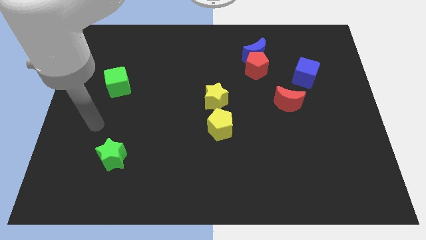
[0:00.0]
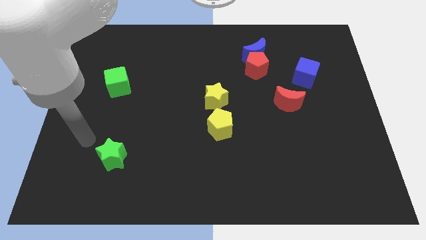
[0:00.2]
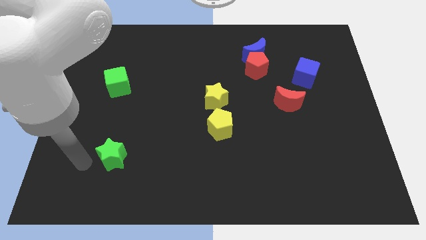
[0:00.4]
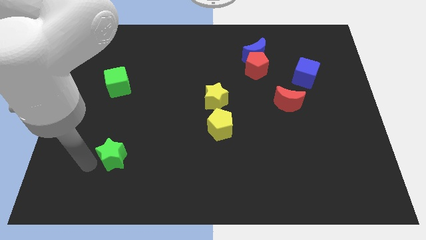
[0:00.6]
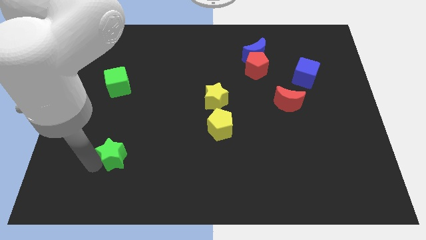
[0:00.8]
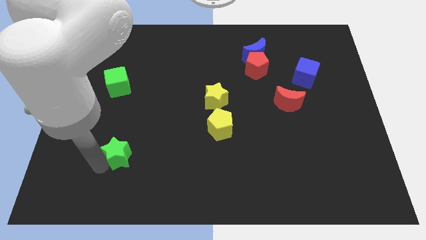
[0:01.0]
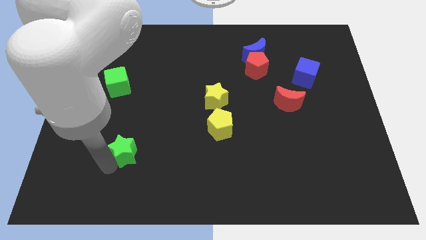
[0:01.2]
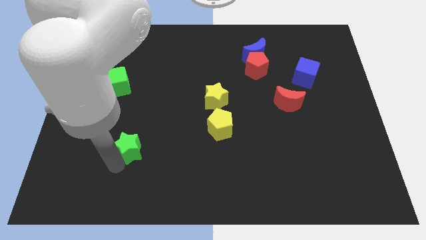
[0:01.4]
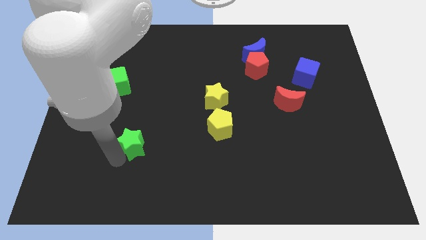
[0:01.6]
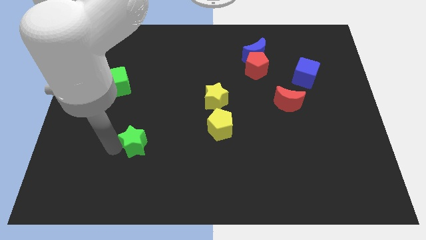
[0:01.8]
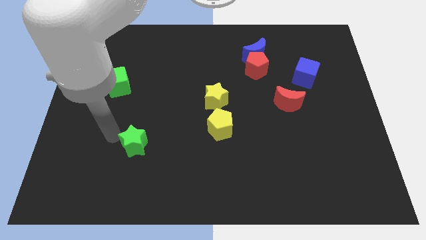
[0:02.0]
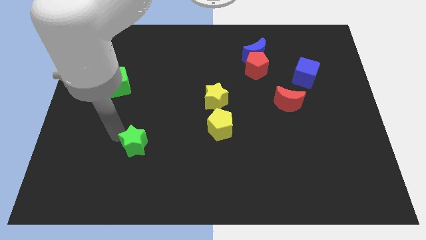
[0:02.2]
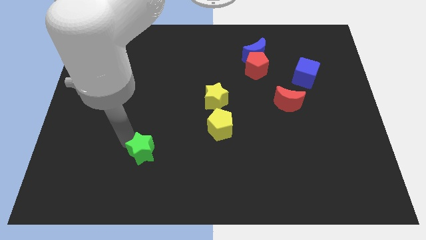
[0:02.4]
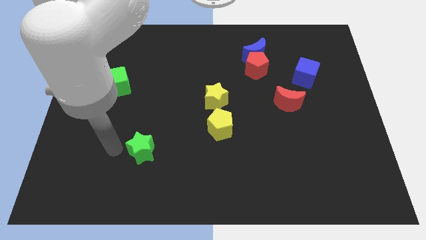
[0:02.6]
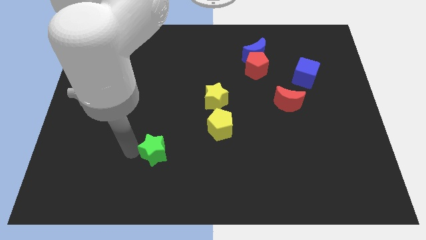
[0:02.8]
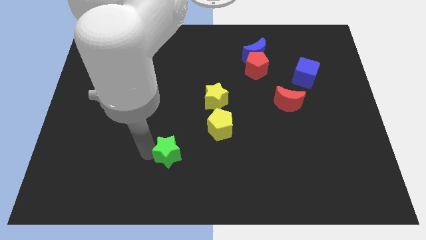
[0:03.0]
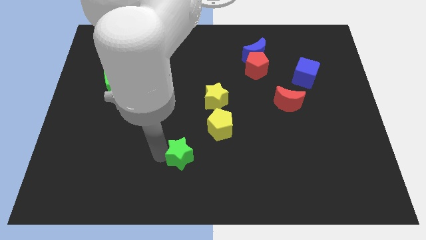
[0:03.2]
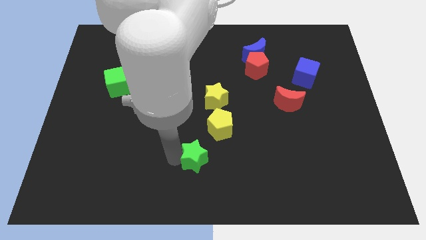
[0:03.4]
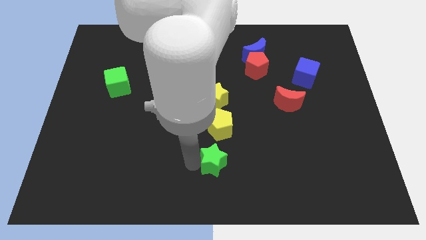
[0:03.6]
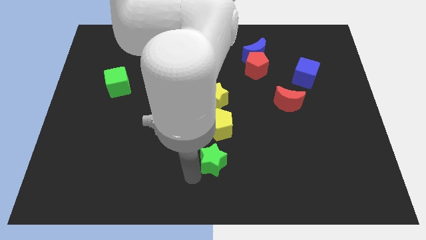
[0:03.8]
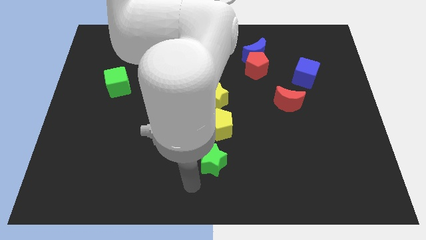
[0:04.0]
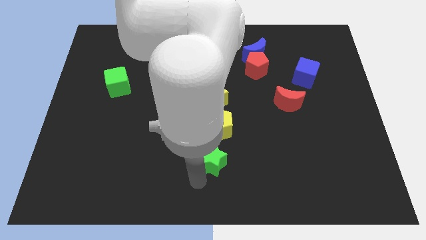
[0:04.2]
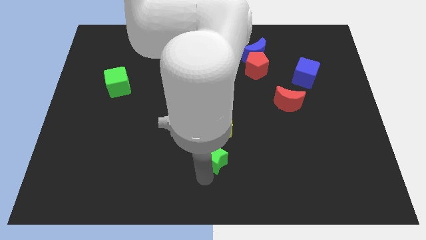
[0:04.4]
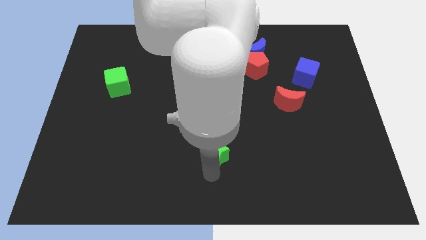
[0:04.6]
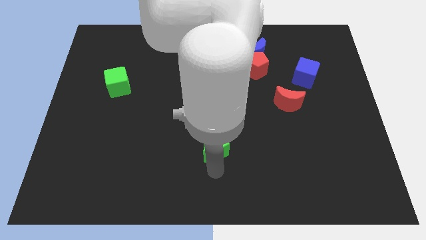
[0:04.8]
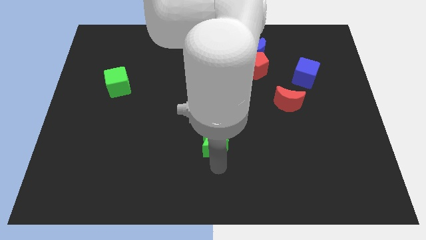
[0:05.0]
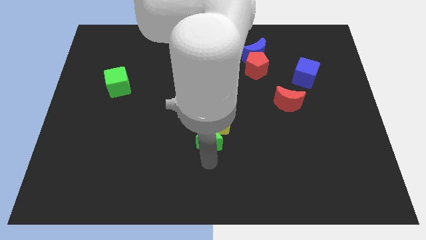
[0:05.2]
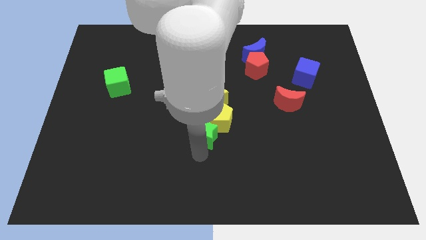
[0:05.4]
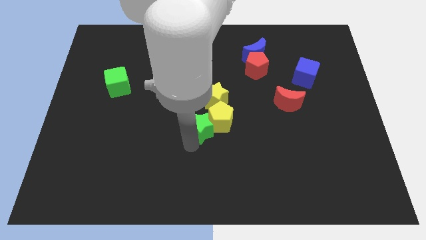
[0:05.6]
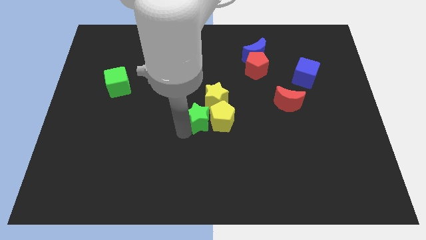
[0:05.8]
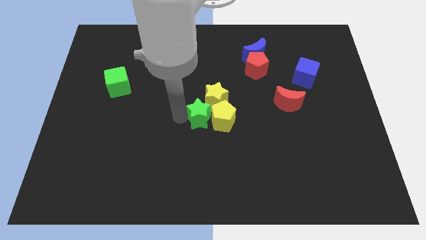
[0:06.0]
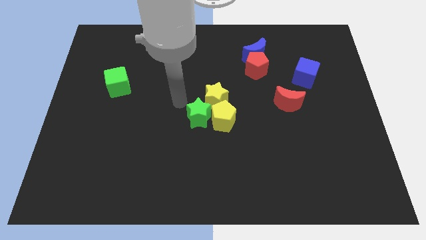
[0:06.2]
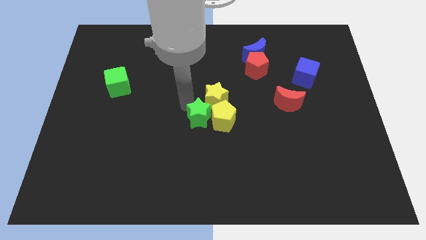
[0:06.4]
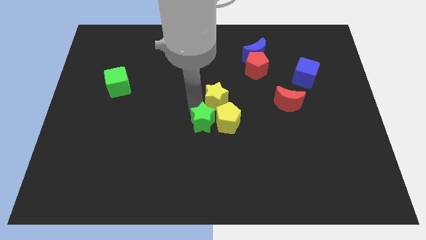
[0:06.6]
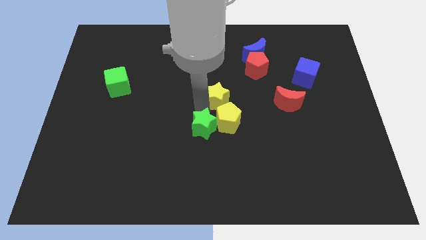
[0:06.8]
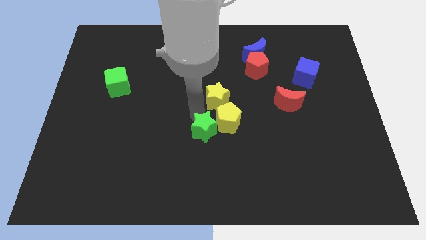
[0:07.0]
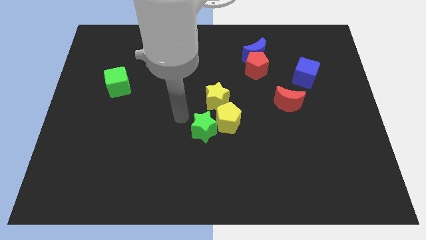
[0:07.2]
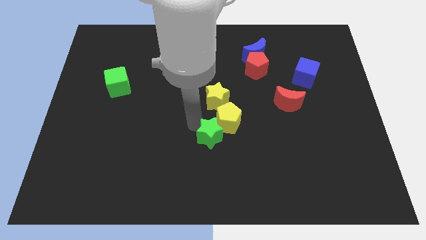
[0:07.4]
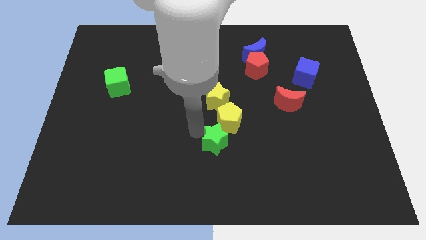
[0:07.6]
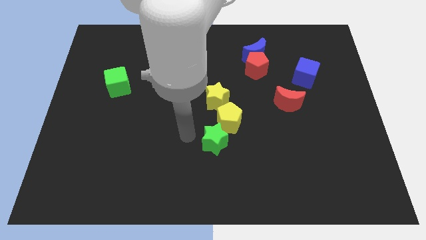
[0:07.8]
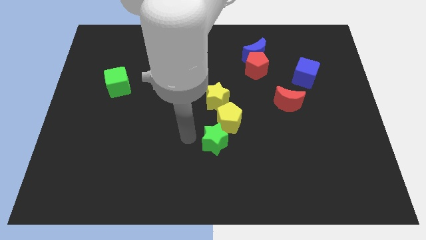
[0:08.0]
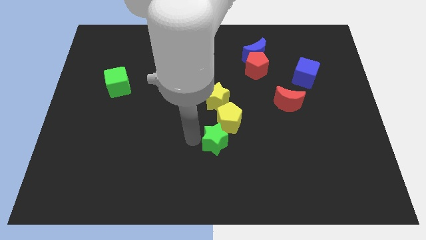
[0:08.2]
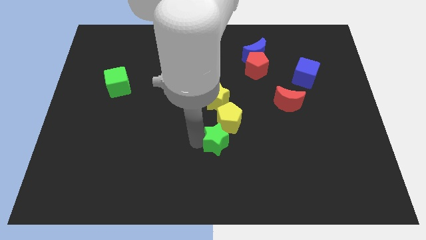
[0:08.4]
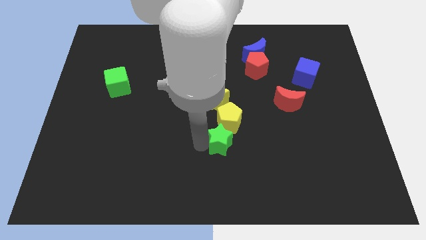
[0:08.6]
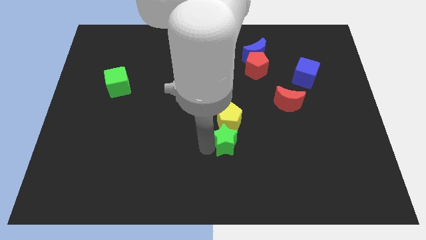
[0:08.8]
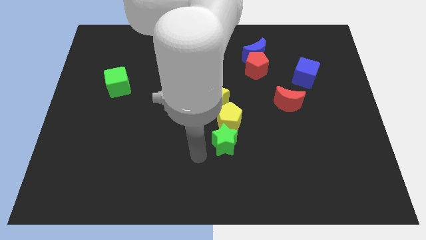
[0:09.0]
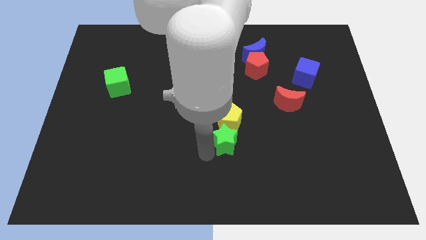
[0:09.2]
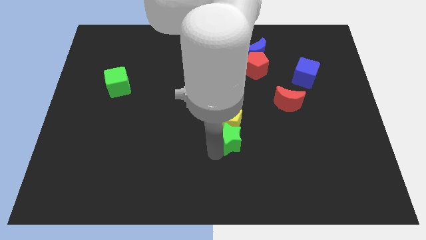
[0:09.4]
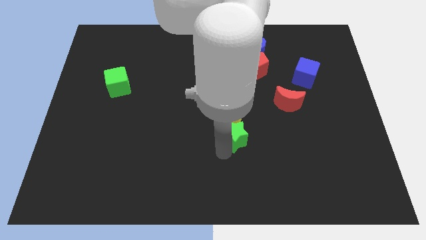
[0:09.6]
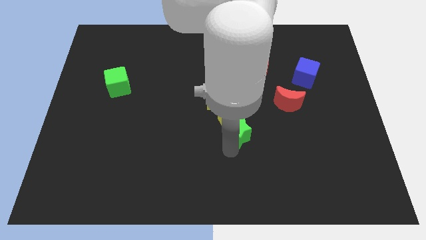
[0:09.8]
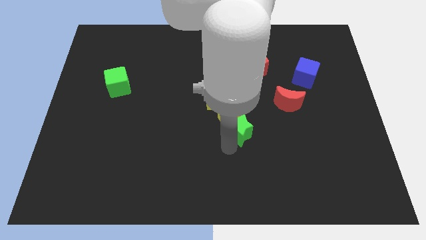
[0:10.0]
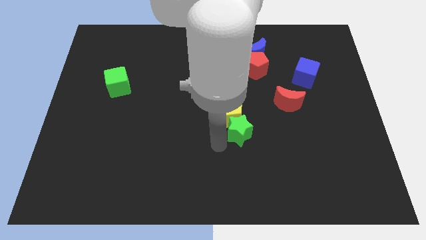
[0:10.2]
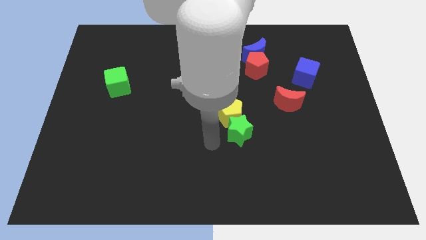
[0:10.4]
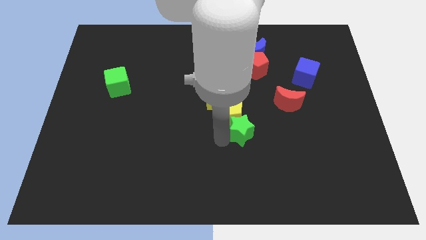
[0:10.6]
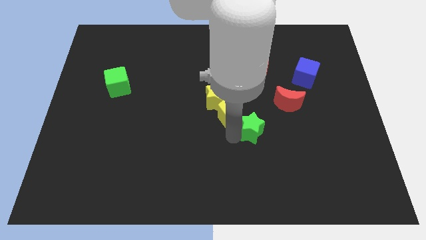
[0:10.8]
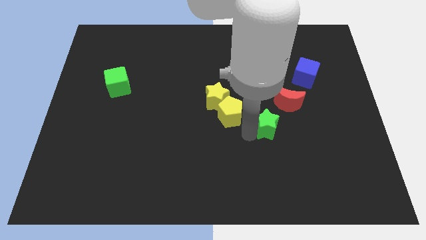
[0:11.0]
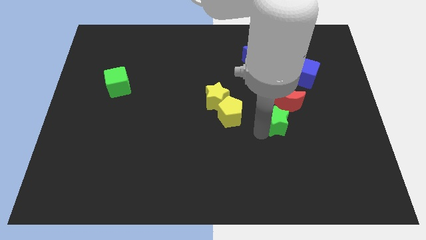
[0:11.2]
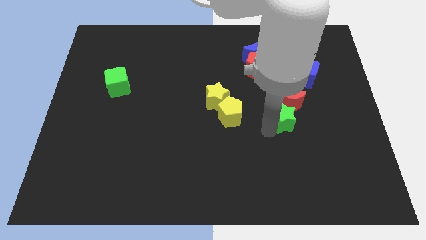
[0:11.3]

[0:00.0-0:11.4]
push the green star next to the red moon

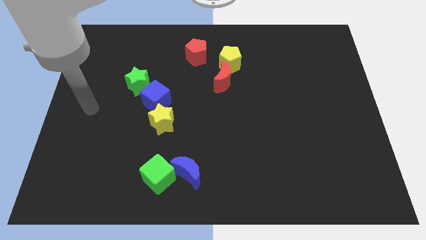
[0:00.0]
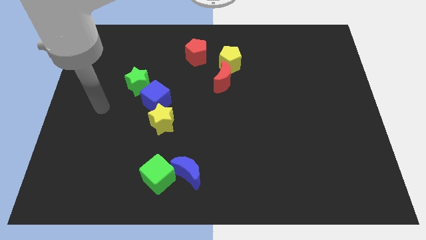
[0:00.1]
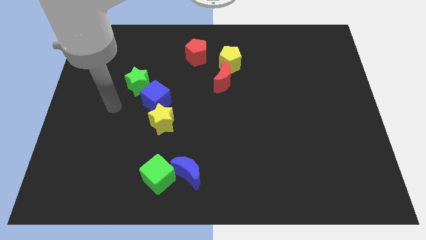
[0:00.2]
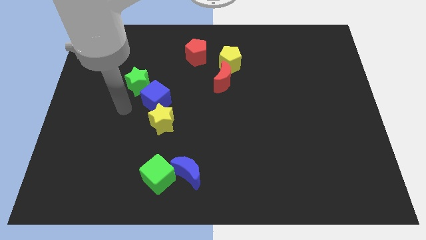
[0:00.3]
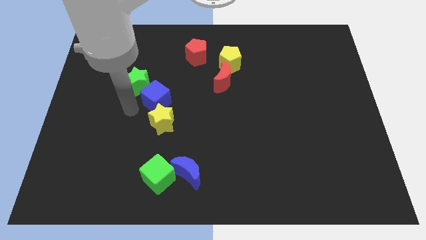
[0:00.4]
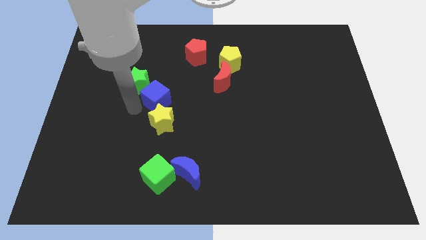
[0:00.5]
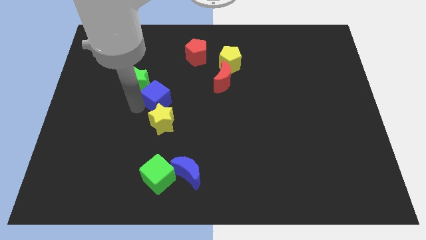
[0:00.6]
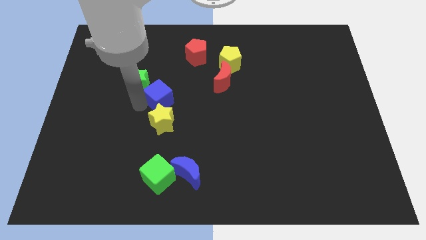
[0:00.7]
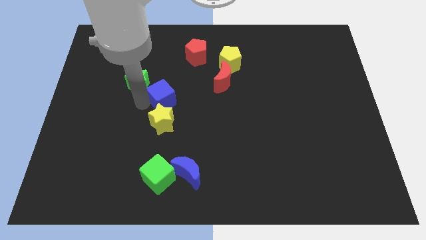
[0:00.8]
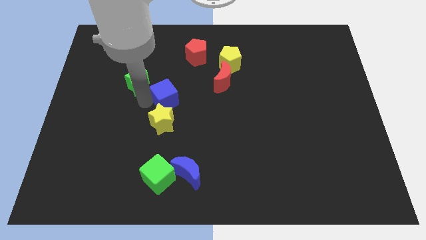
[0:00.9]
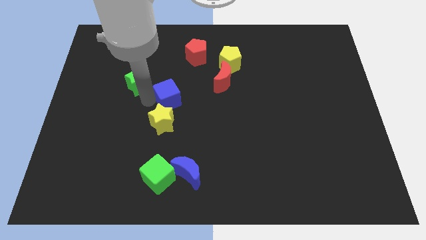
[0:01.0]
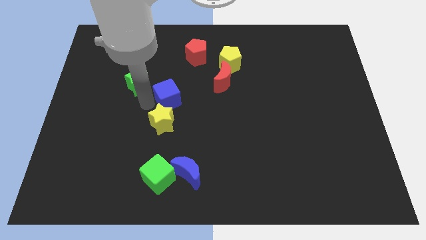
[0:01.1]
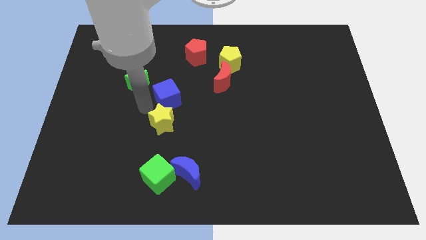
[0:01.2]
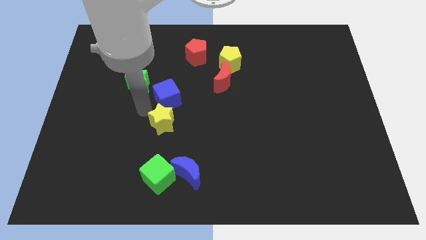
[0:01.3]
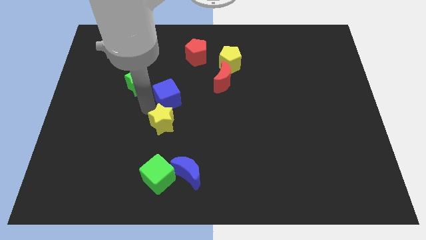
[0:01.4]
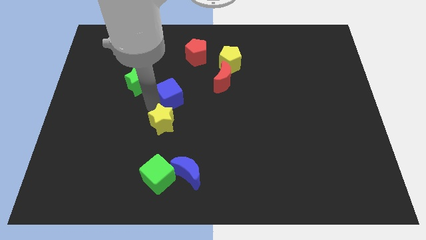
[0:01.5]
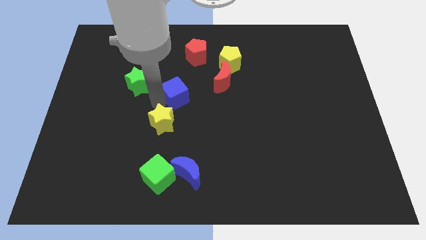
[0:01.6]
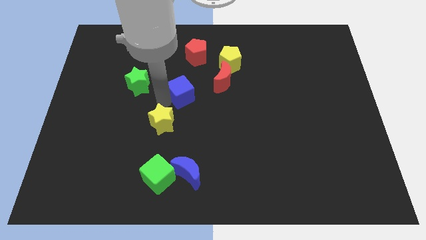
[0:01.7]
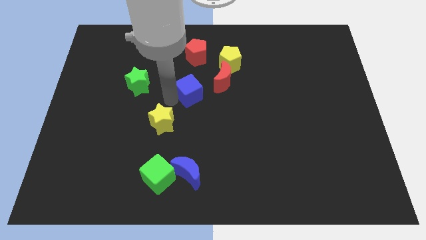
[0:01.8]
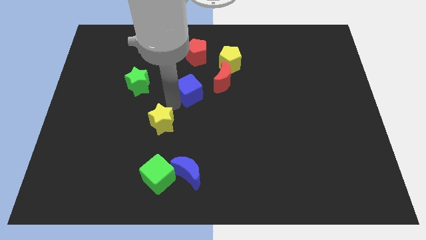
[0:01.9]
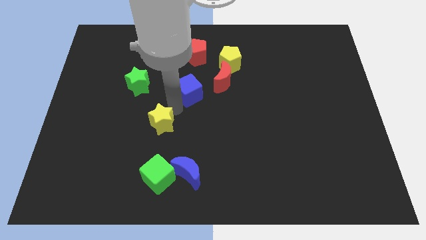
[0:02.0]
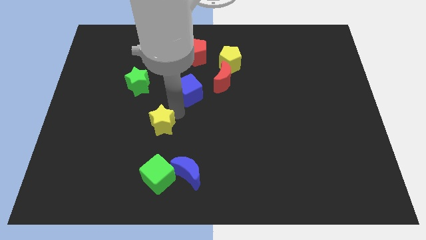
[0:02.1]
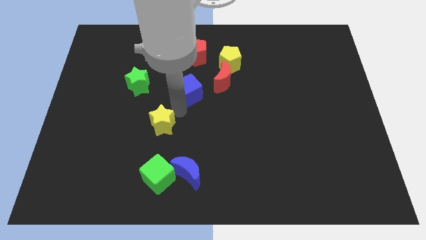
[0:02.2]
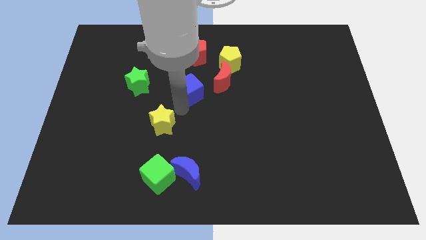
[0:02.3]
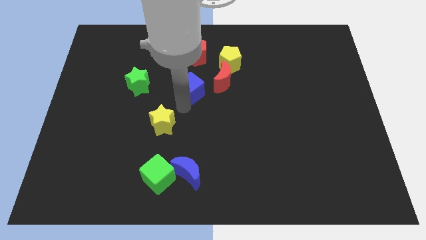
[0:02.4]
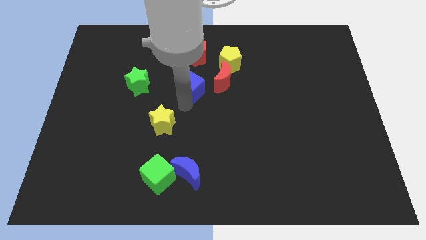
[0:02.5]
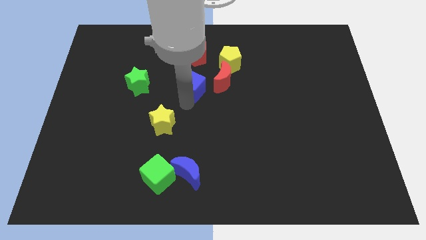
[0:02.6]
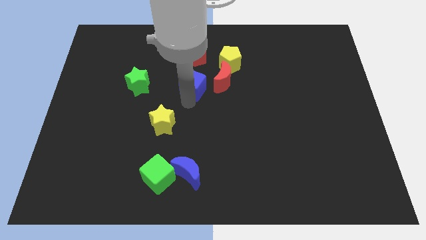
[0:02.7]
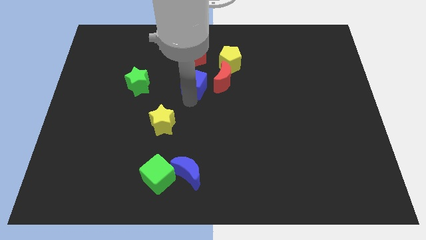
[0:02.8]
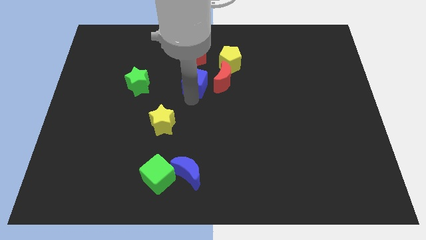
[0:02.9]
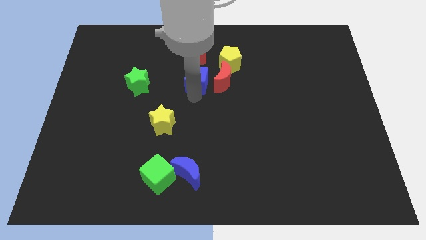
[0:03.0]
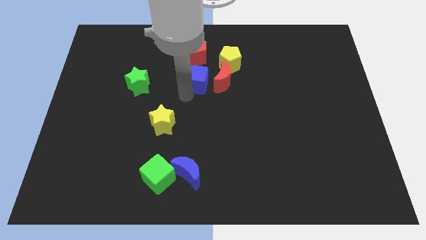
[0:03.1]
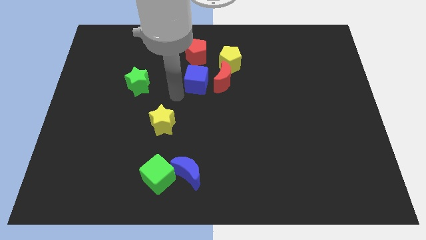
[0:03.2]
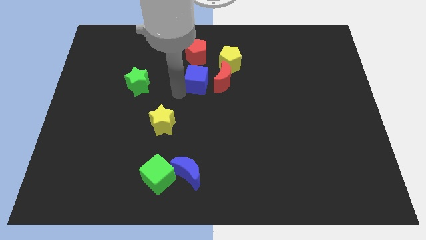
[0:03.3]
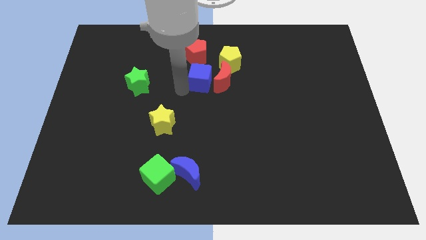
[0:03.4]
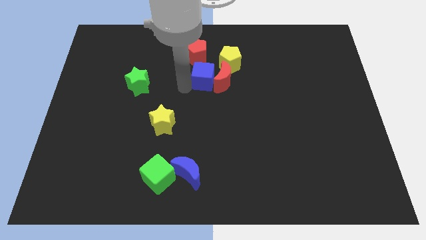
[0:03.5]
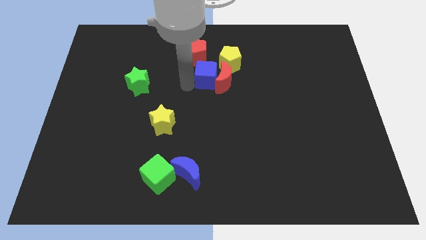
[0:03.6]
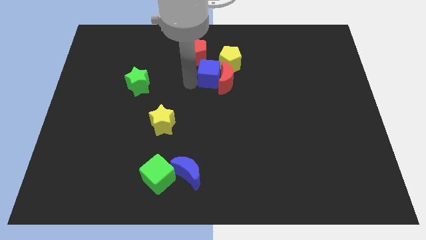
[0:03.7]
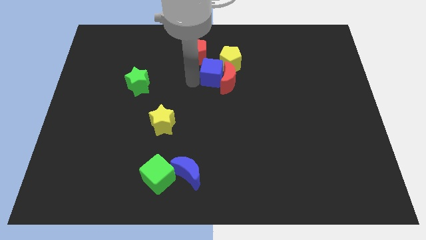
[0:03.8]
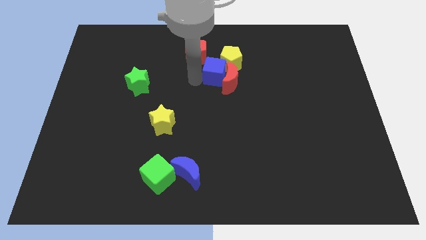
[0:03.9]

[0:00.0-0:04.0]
slide the blue cube towards the yellow pentagon
